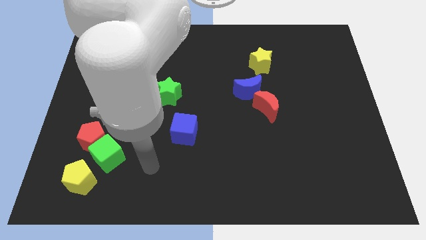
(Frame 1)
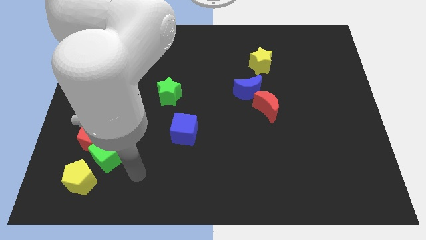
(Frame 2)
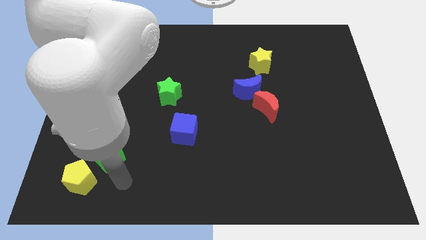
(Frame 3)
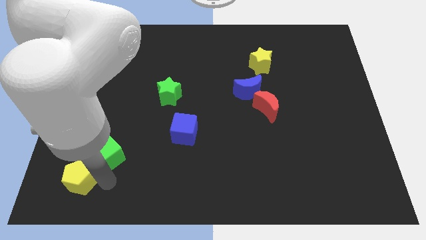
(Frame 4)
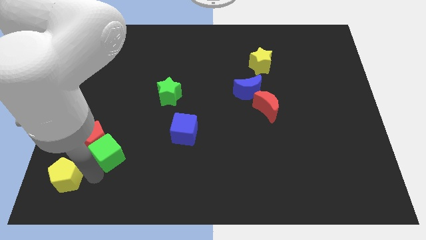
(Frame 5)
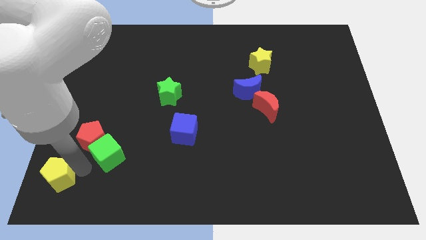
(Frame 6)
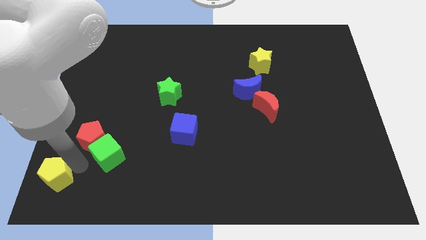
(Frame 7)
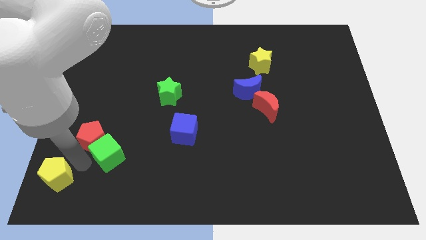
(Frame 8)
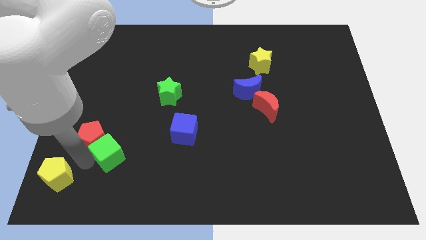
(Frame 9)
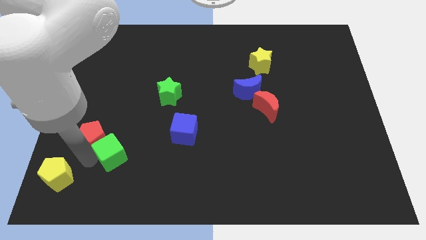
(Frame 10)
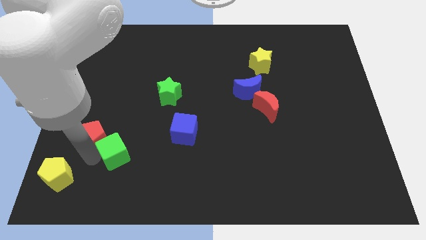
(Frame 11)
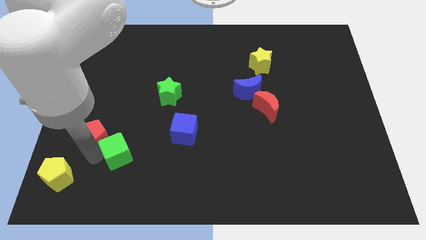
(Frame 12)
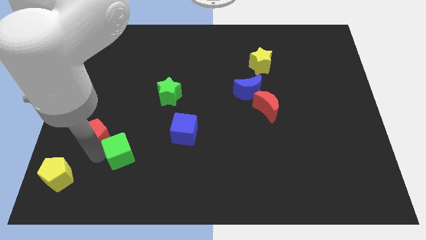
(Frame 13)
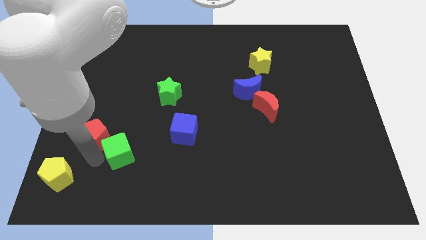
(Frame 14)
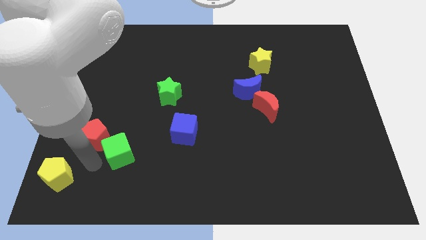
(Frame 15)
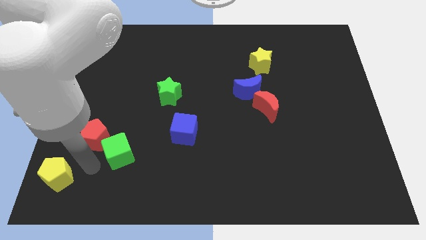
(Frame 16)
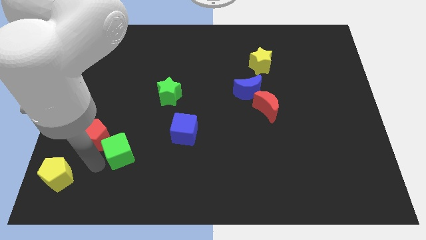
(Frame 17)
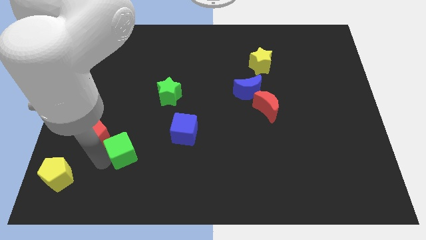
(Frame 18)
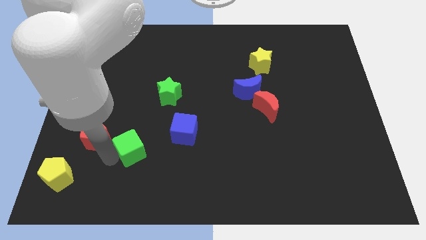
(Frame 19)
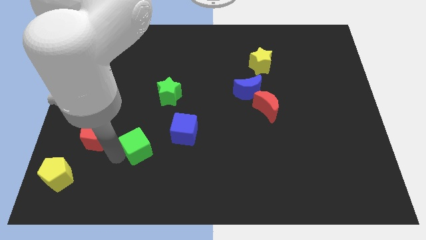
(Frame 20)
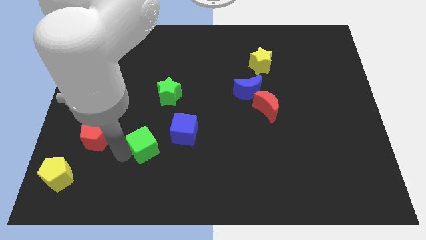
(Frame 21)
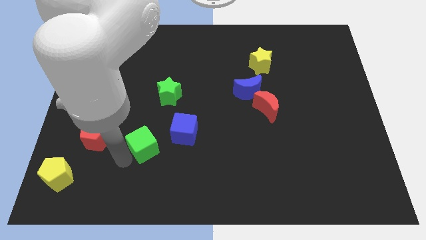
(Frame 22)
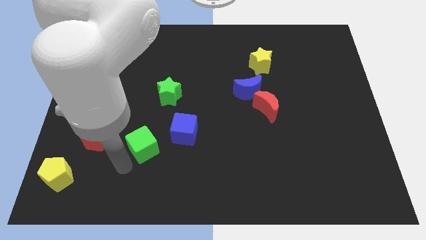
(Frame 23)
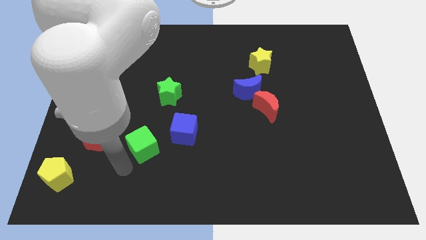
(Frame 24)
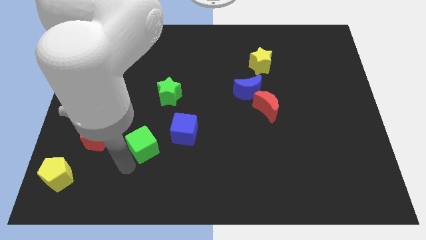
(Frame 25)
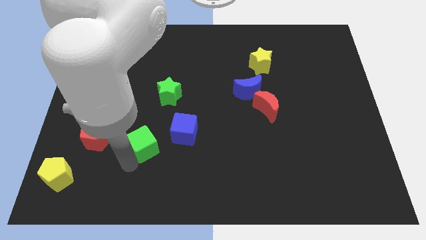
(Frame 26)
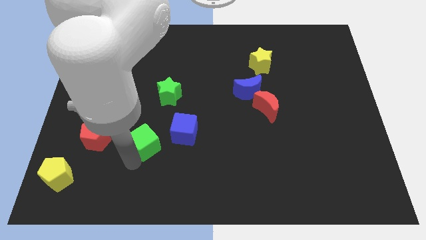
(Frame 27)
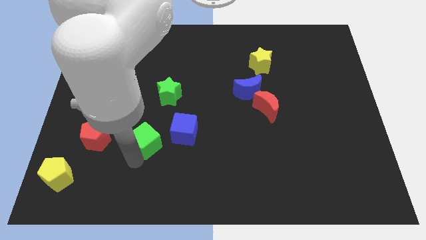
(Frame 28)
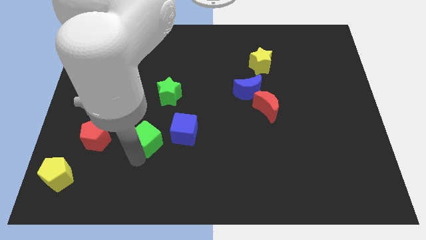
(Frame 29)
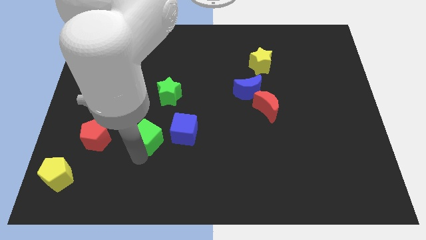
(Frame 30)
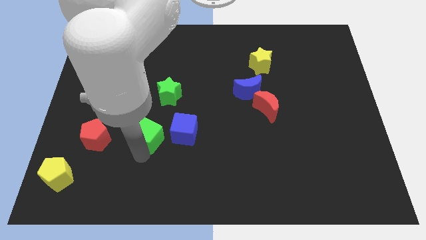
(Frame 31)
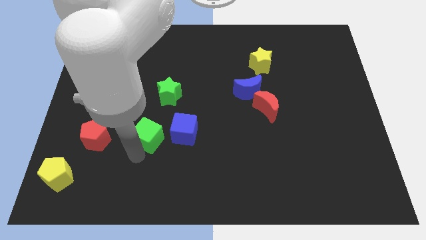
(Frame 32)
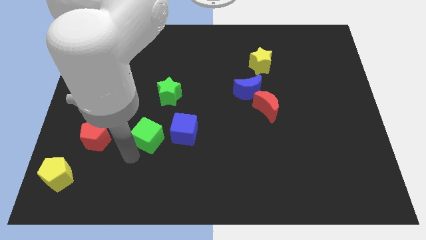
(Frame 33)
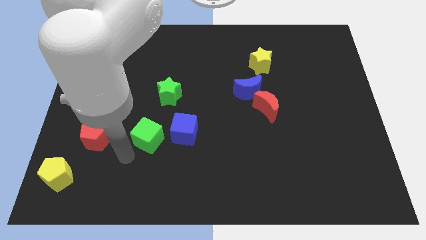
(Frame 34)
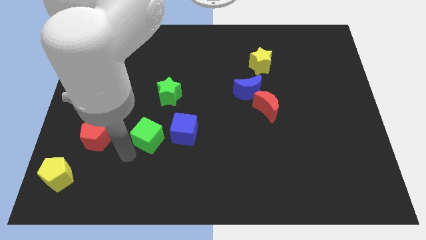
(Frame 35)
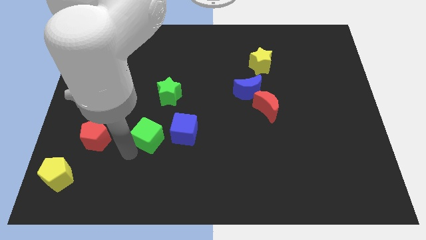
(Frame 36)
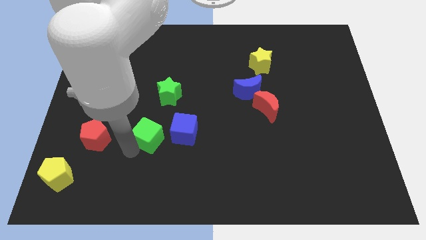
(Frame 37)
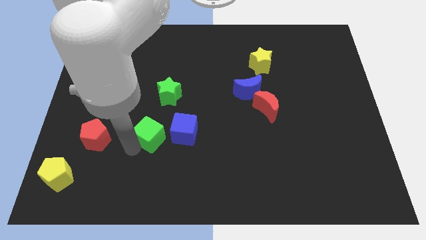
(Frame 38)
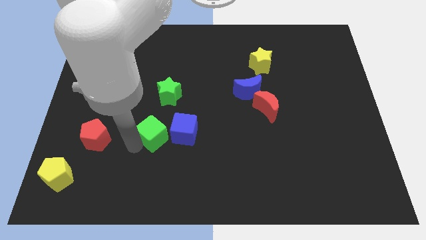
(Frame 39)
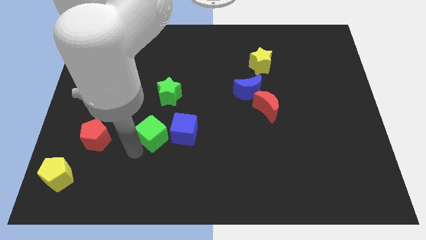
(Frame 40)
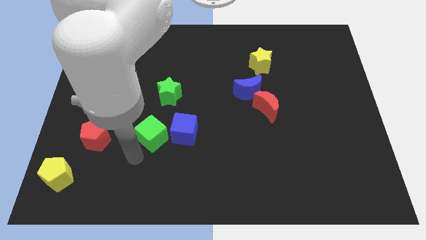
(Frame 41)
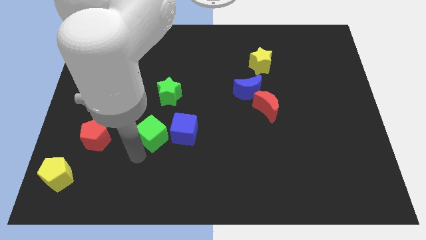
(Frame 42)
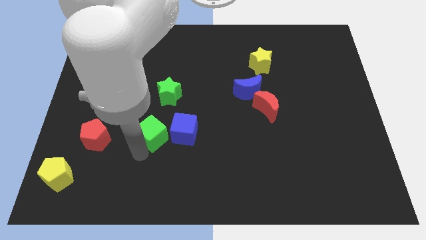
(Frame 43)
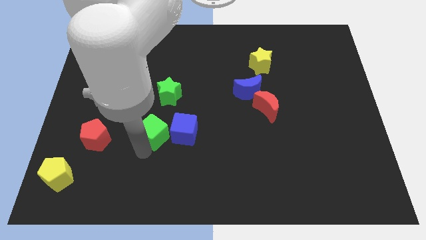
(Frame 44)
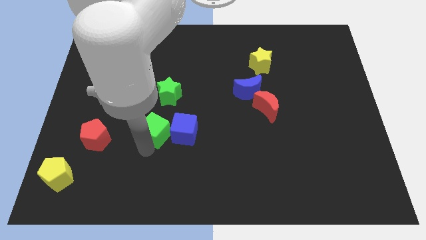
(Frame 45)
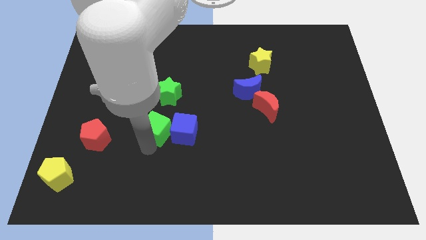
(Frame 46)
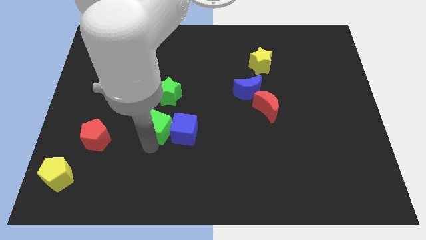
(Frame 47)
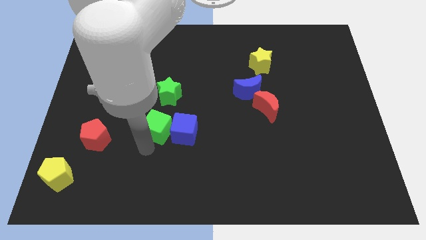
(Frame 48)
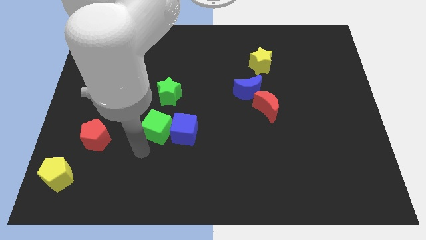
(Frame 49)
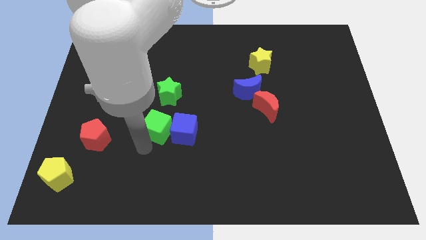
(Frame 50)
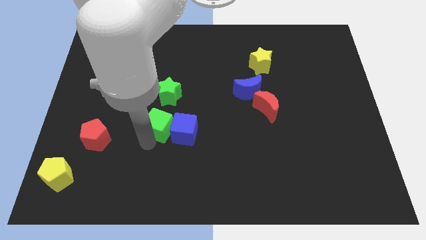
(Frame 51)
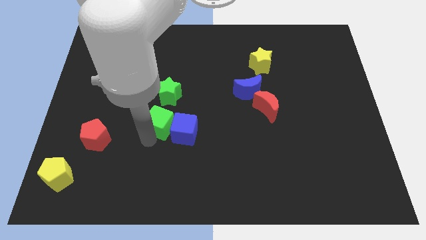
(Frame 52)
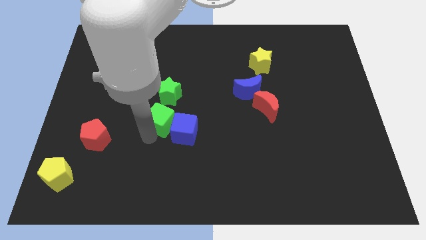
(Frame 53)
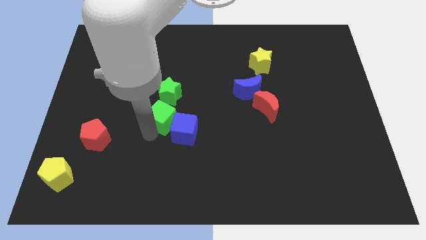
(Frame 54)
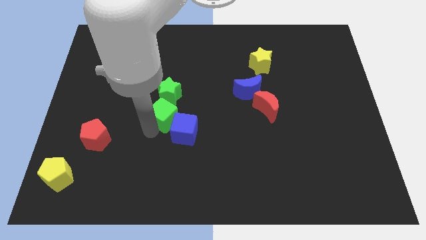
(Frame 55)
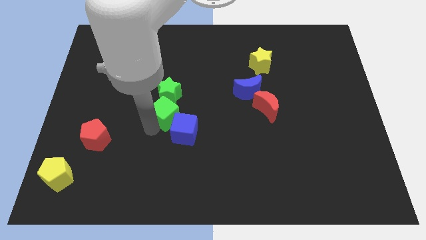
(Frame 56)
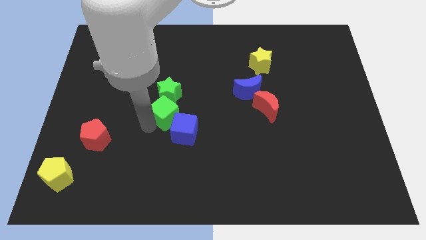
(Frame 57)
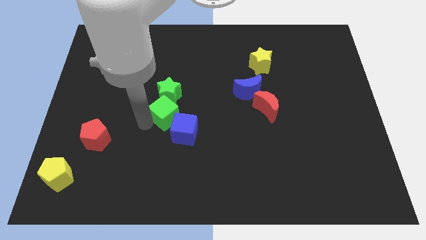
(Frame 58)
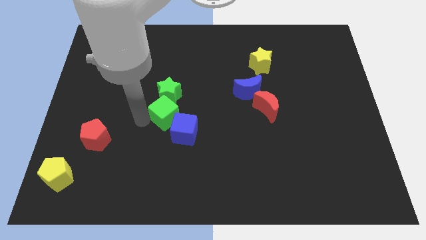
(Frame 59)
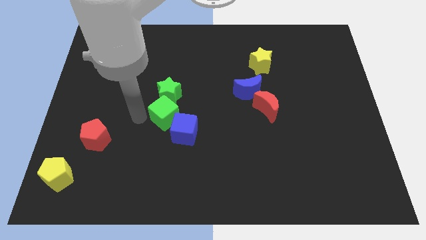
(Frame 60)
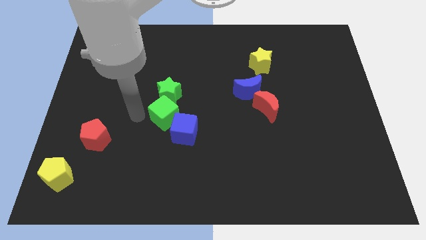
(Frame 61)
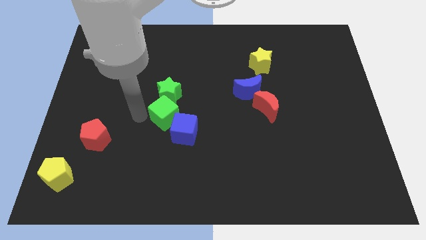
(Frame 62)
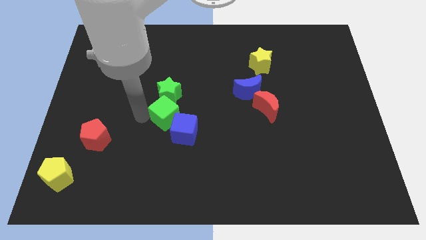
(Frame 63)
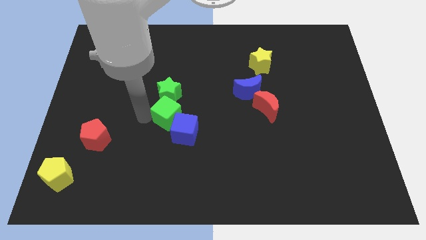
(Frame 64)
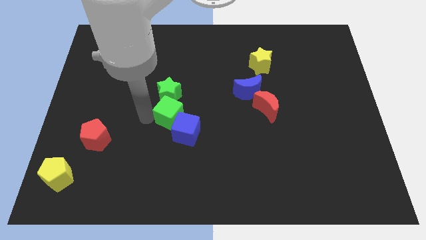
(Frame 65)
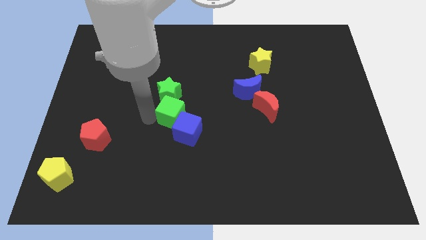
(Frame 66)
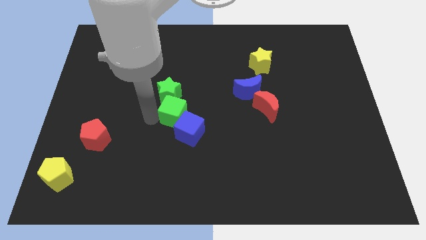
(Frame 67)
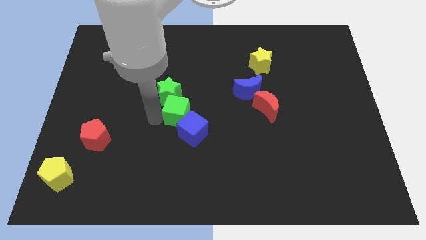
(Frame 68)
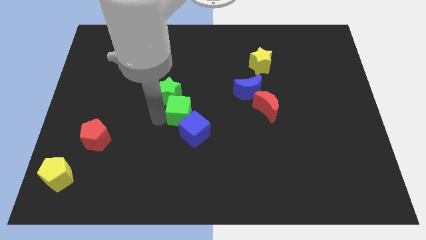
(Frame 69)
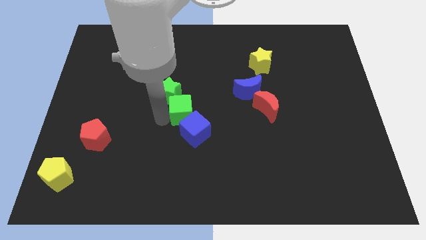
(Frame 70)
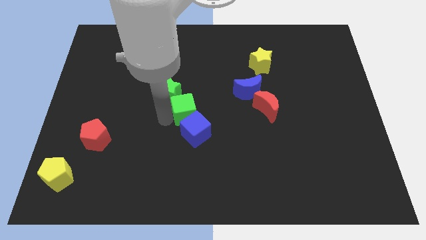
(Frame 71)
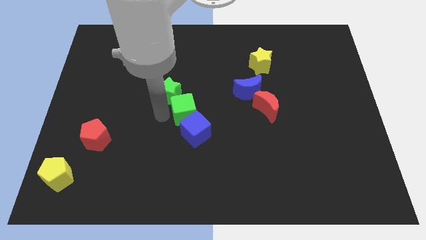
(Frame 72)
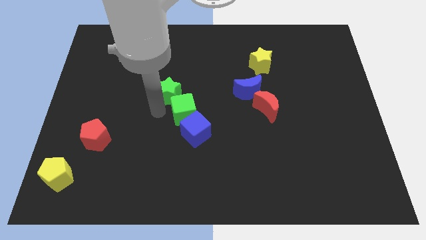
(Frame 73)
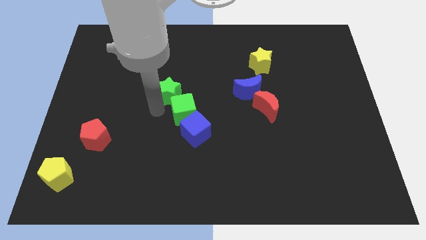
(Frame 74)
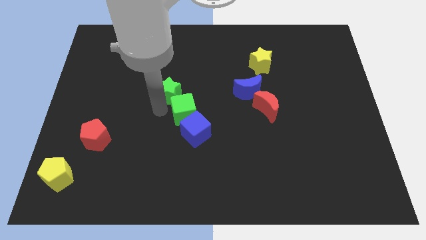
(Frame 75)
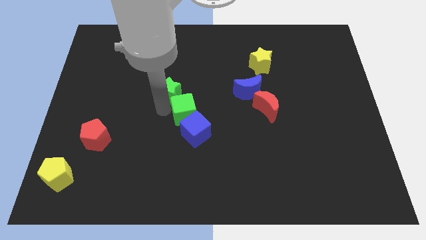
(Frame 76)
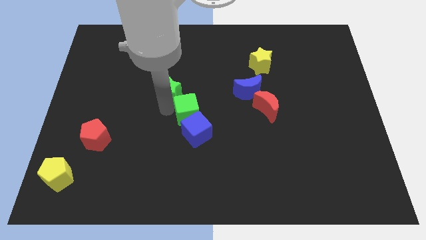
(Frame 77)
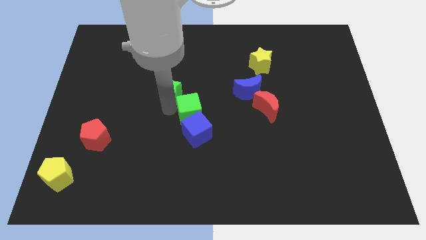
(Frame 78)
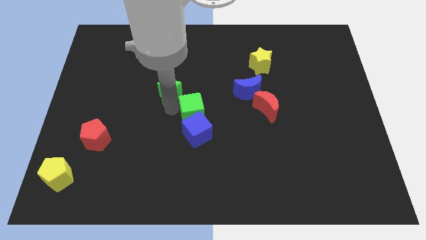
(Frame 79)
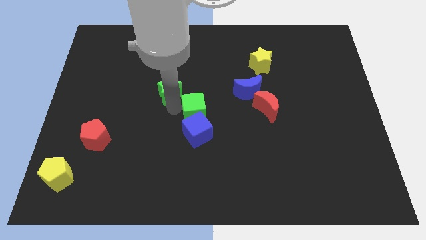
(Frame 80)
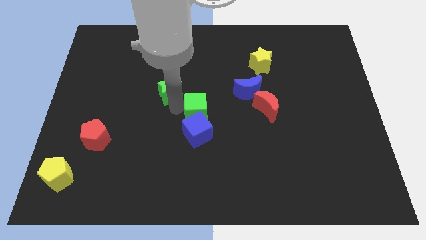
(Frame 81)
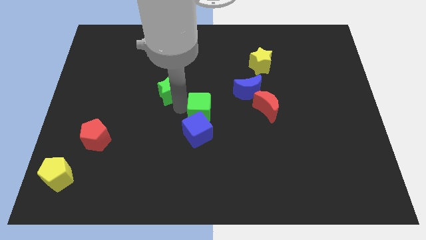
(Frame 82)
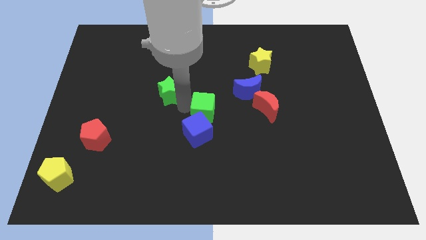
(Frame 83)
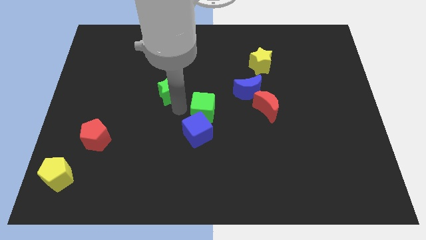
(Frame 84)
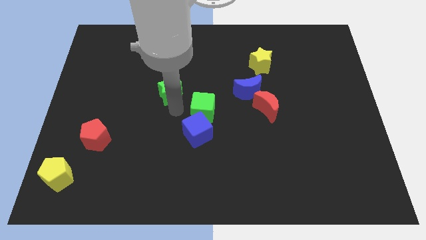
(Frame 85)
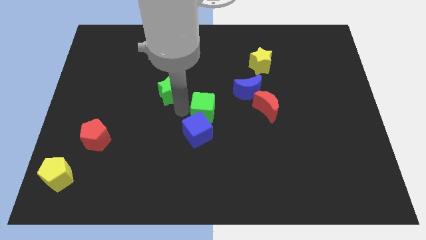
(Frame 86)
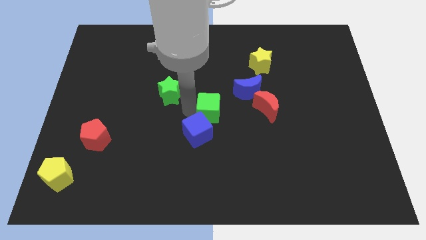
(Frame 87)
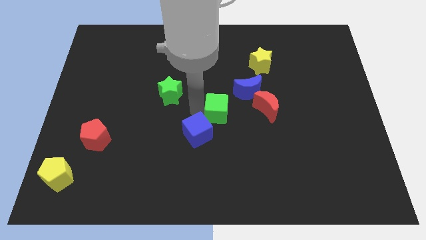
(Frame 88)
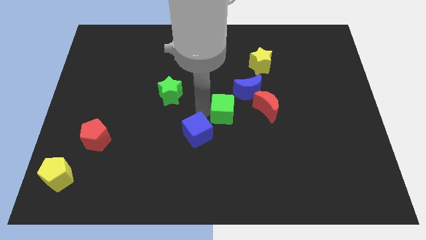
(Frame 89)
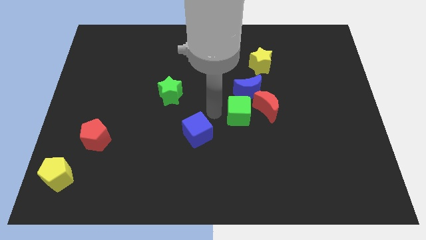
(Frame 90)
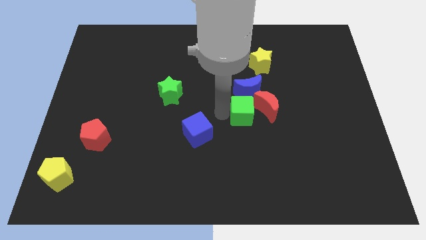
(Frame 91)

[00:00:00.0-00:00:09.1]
move the green cube towards the red moon
